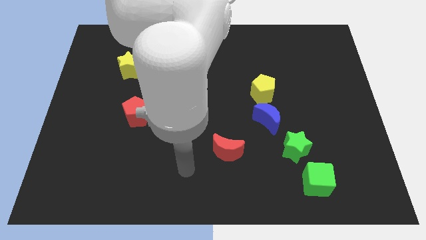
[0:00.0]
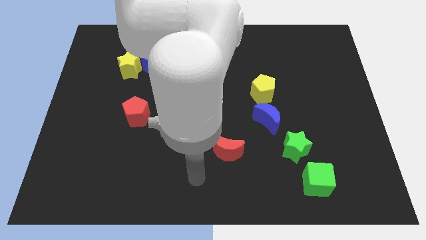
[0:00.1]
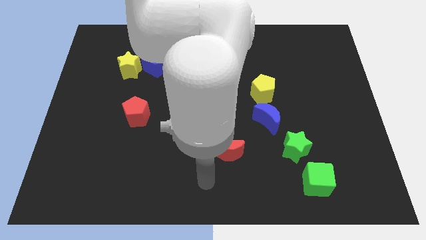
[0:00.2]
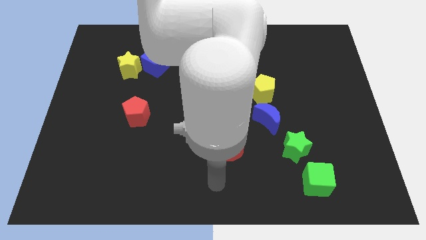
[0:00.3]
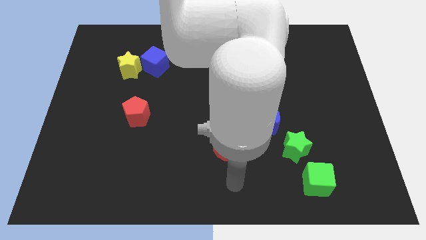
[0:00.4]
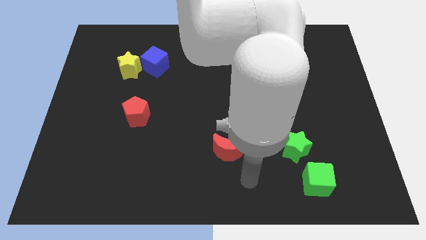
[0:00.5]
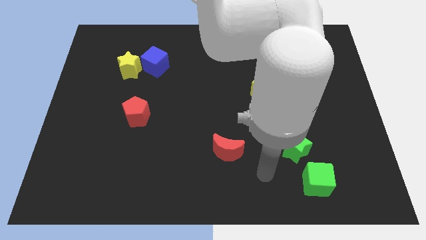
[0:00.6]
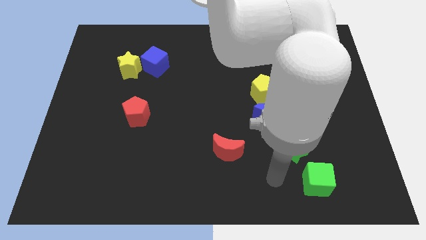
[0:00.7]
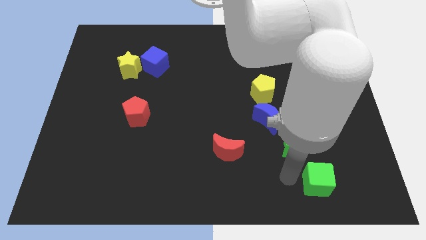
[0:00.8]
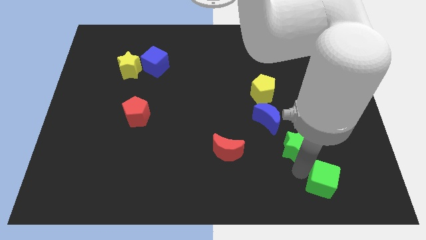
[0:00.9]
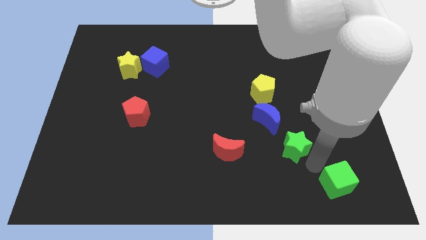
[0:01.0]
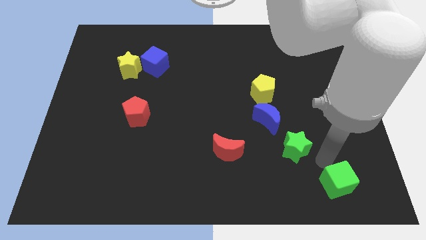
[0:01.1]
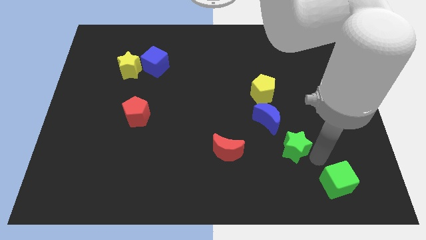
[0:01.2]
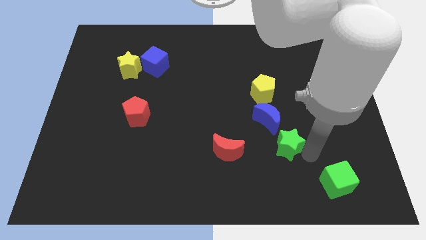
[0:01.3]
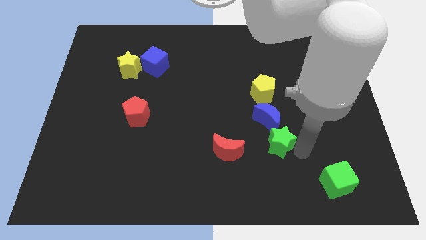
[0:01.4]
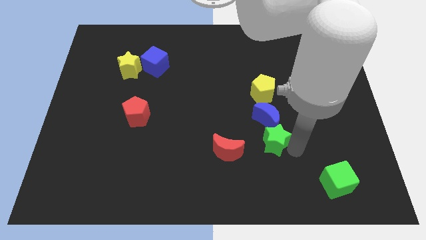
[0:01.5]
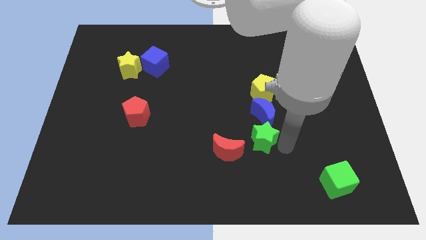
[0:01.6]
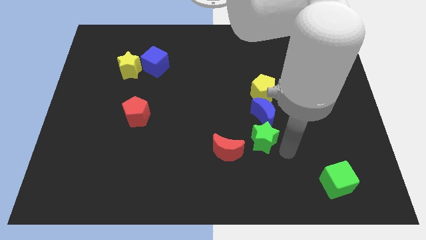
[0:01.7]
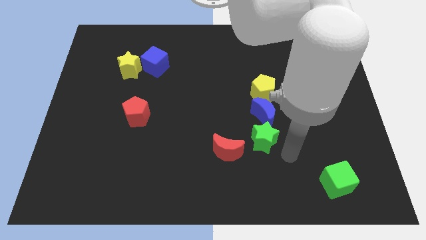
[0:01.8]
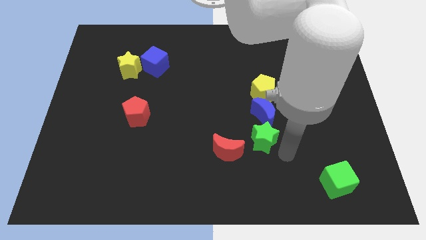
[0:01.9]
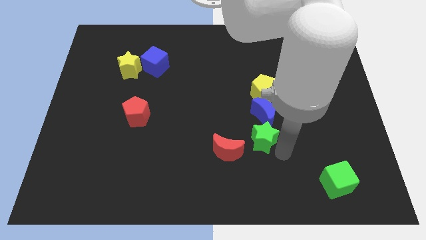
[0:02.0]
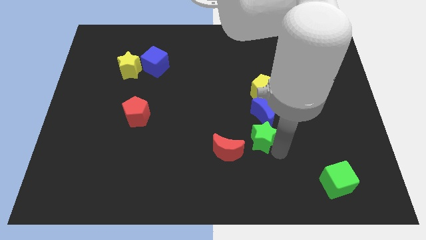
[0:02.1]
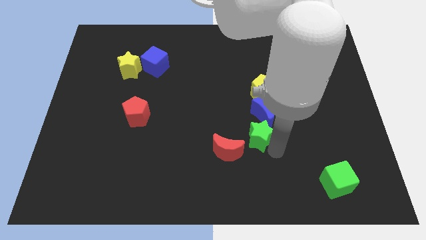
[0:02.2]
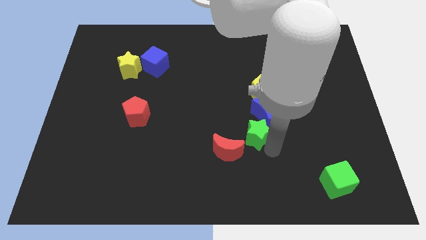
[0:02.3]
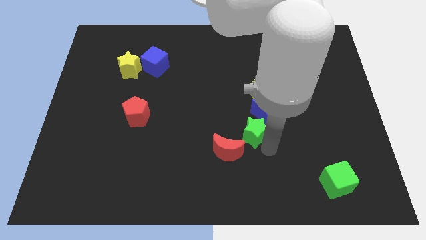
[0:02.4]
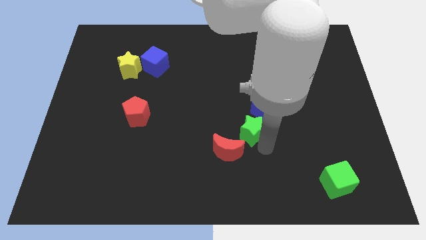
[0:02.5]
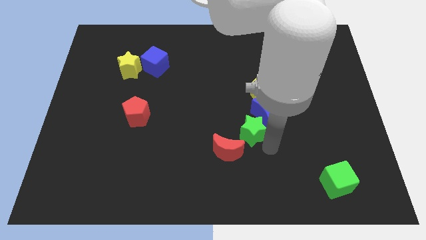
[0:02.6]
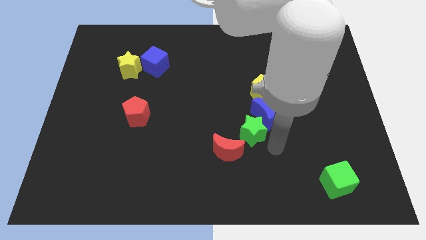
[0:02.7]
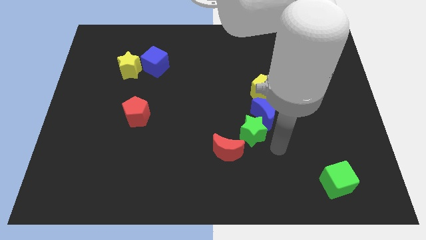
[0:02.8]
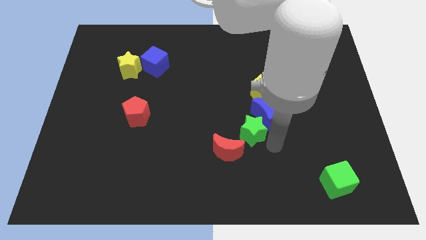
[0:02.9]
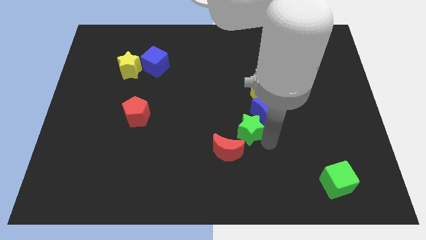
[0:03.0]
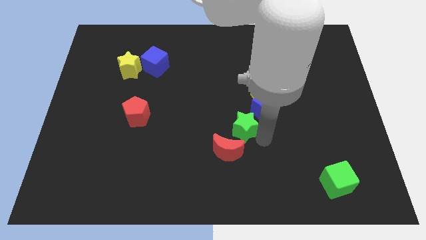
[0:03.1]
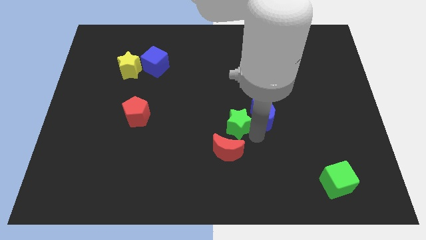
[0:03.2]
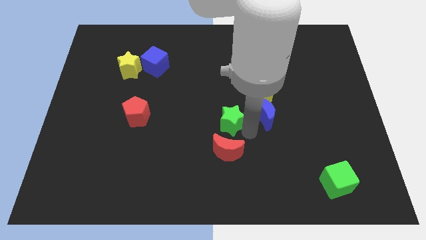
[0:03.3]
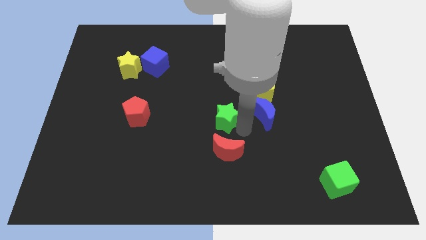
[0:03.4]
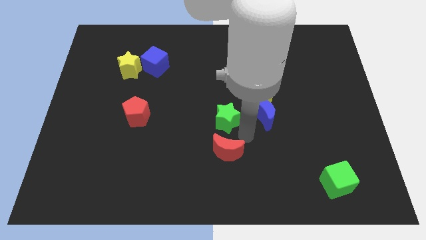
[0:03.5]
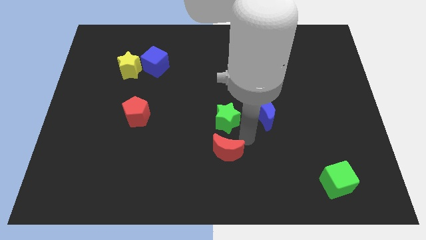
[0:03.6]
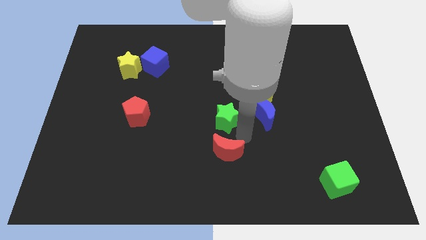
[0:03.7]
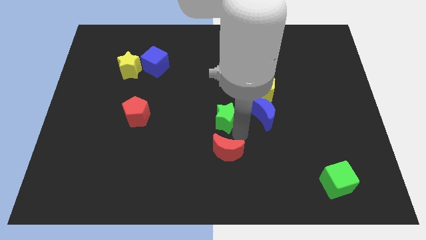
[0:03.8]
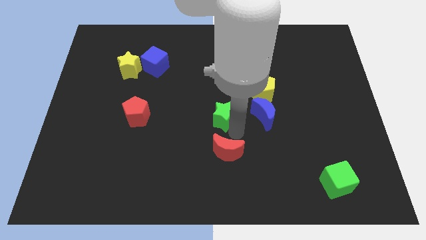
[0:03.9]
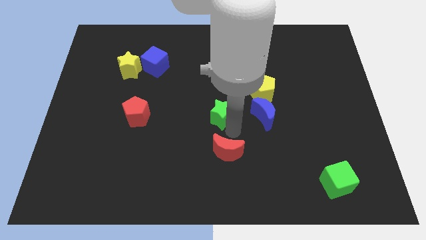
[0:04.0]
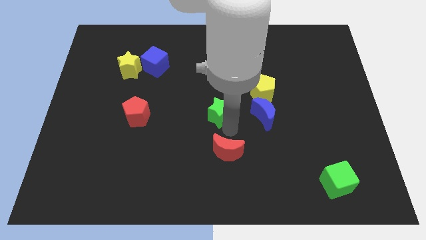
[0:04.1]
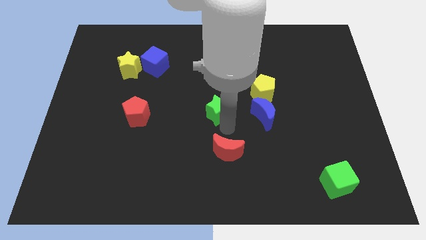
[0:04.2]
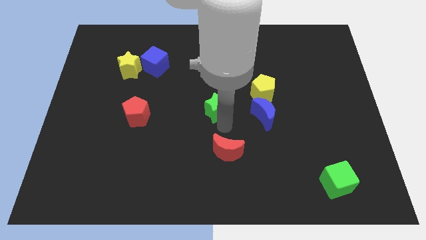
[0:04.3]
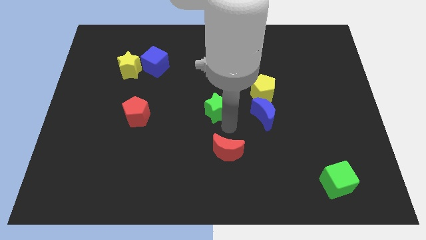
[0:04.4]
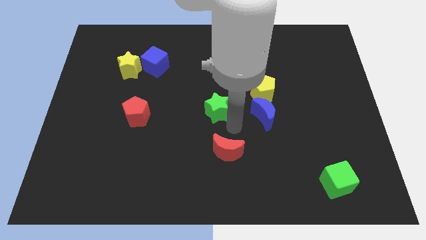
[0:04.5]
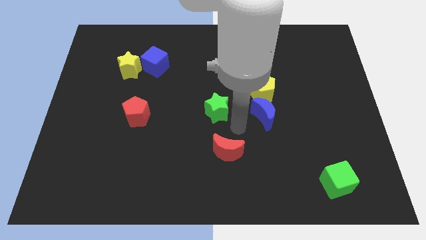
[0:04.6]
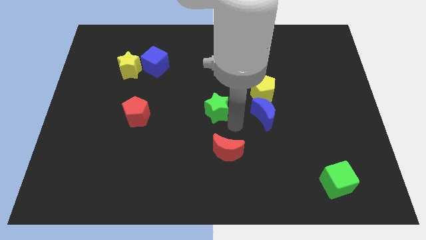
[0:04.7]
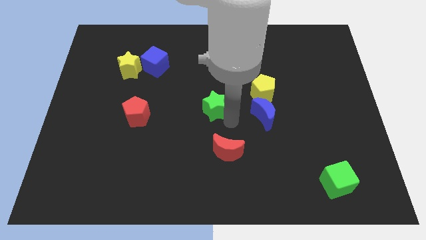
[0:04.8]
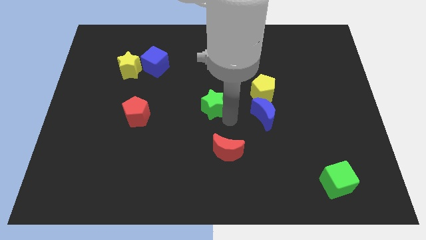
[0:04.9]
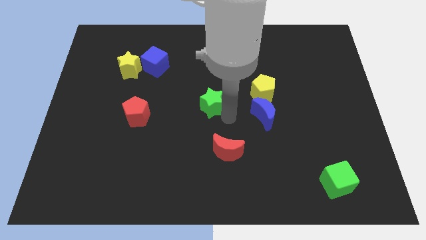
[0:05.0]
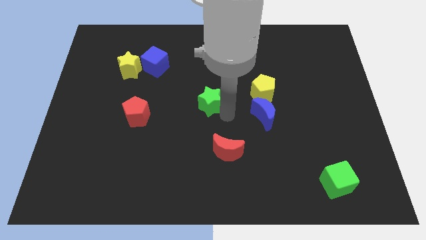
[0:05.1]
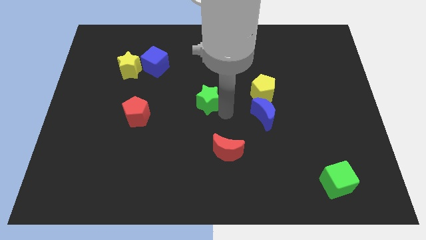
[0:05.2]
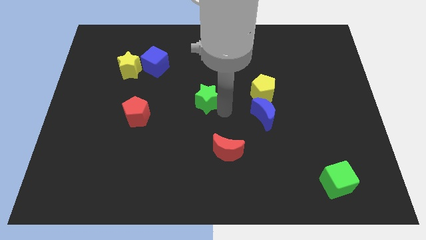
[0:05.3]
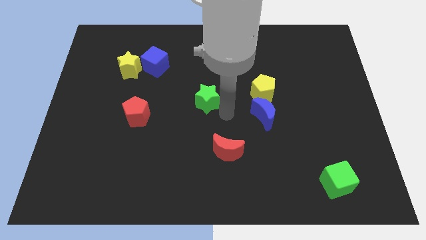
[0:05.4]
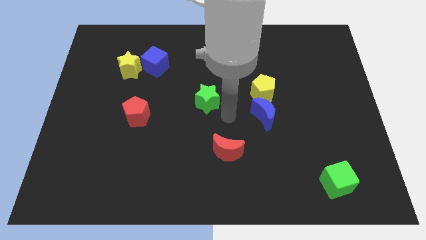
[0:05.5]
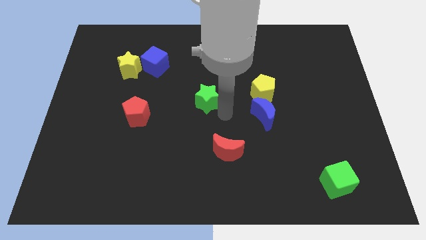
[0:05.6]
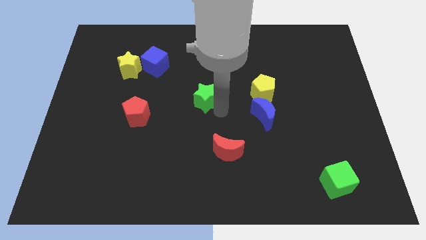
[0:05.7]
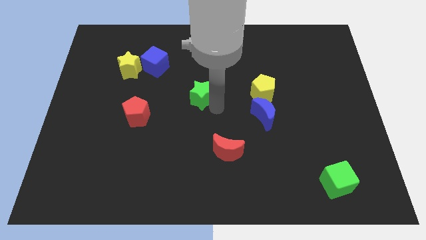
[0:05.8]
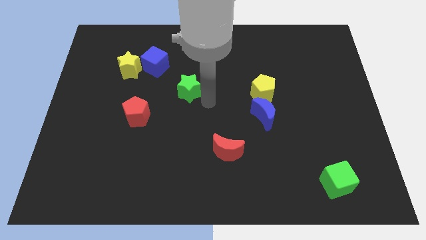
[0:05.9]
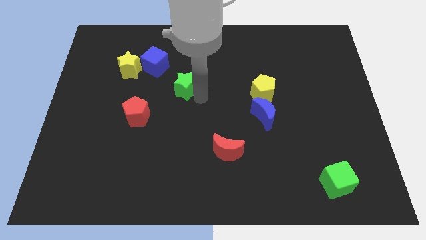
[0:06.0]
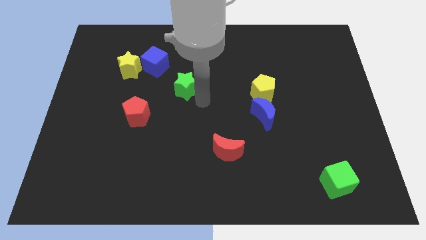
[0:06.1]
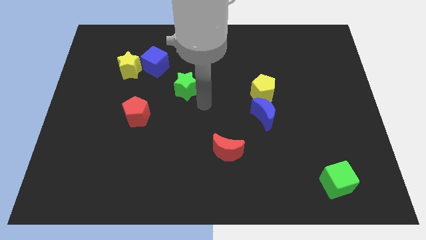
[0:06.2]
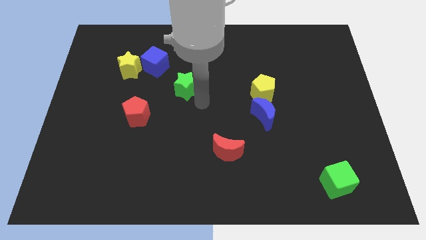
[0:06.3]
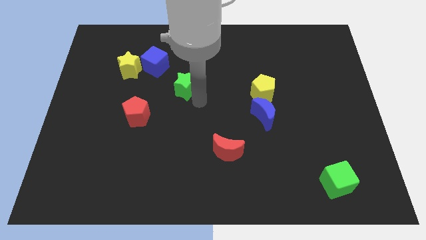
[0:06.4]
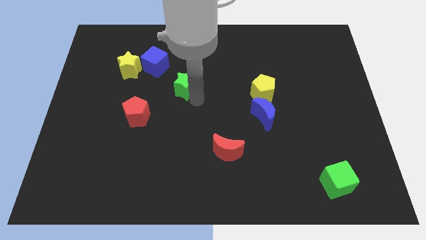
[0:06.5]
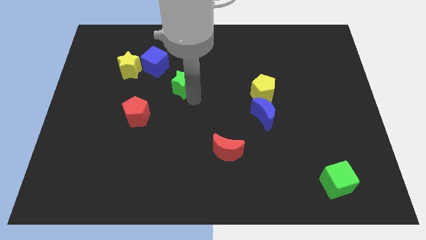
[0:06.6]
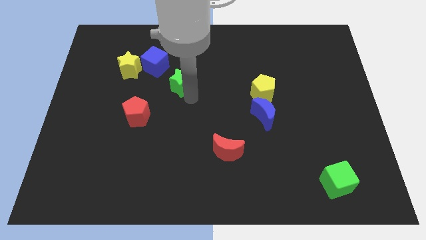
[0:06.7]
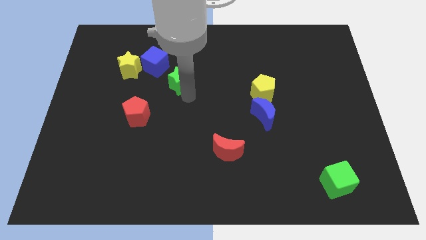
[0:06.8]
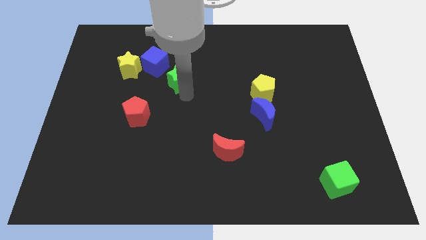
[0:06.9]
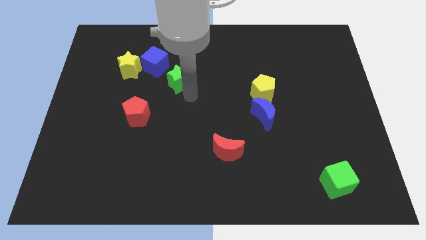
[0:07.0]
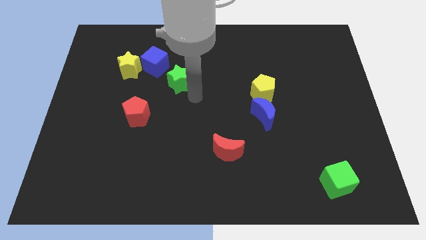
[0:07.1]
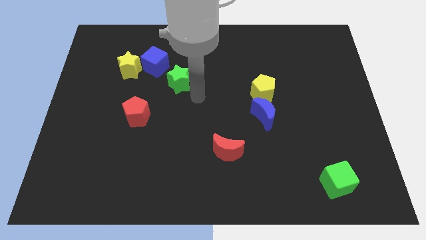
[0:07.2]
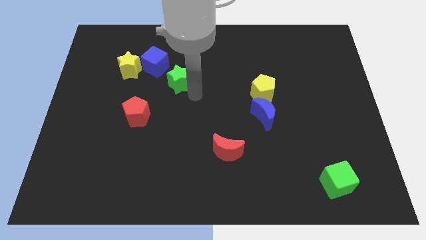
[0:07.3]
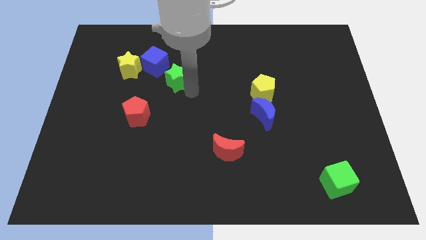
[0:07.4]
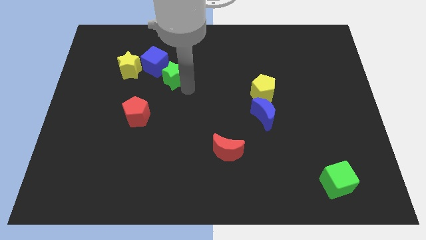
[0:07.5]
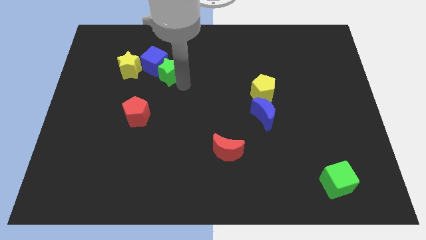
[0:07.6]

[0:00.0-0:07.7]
slide the green star towards the blue cube

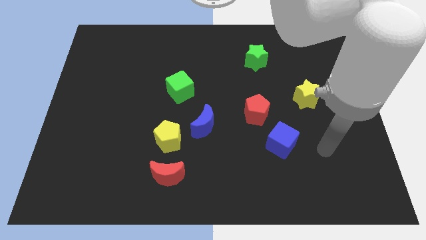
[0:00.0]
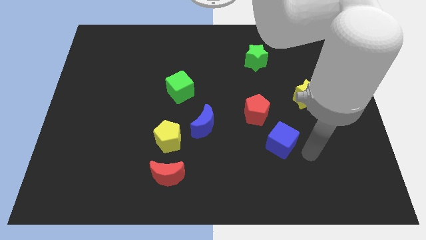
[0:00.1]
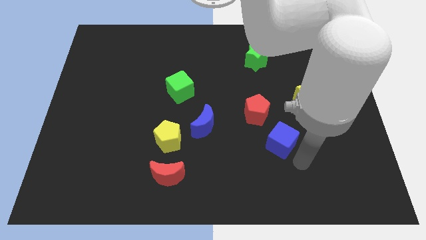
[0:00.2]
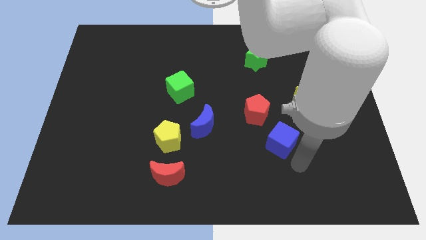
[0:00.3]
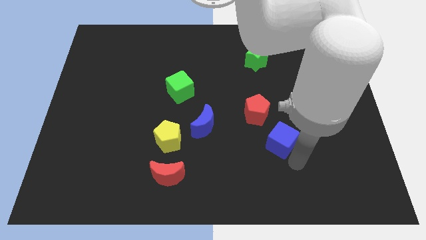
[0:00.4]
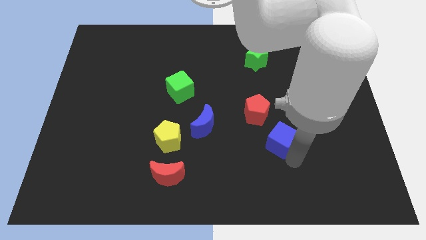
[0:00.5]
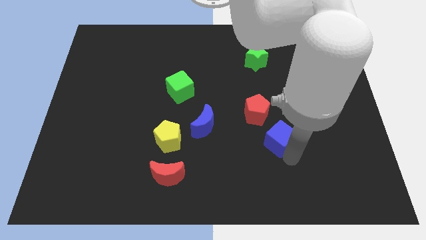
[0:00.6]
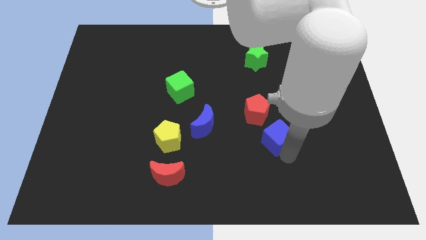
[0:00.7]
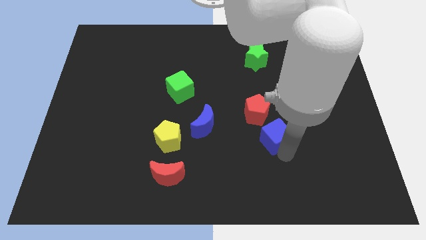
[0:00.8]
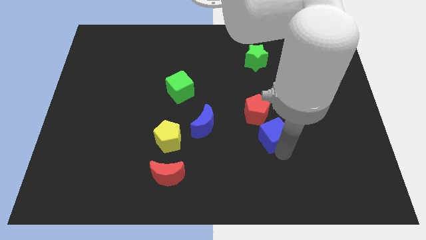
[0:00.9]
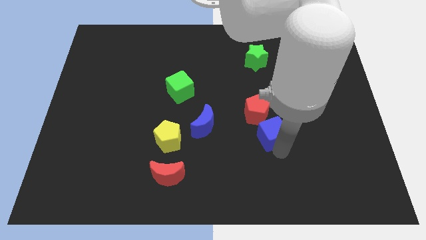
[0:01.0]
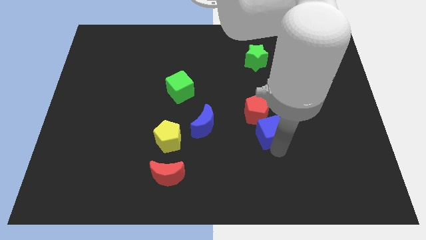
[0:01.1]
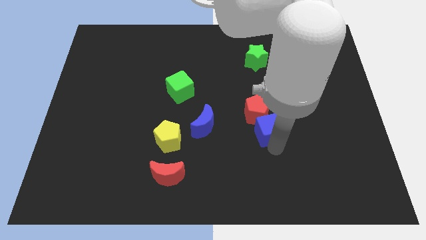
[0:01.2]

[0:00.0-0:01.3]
put the blue cube towards the red pentagon
